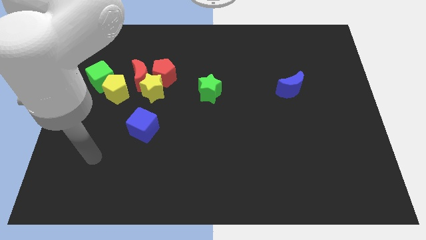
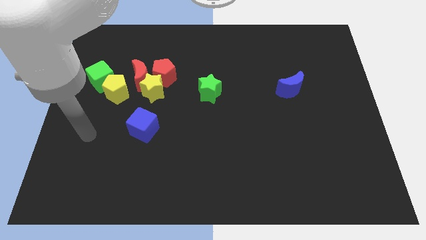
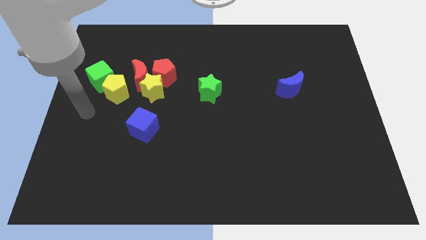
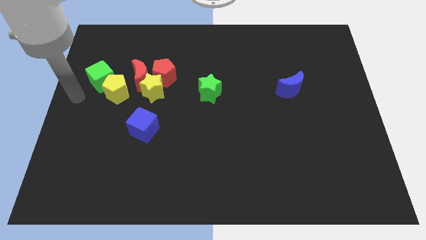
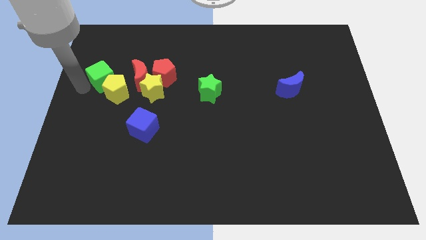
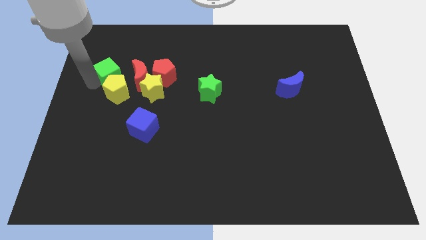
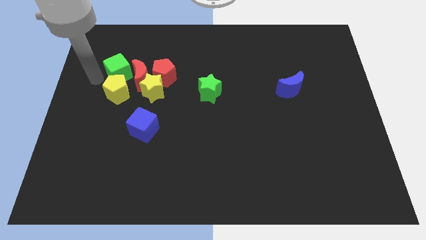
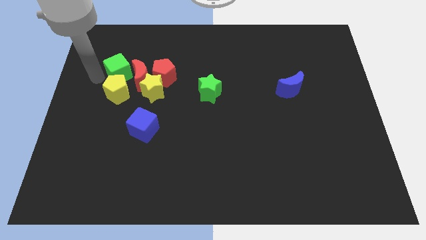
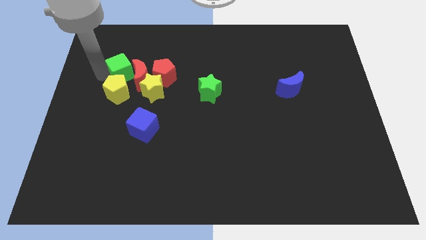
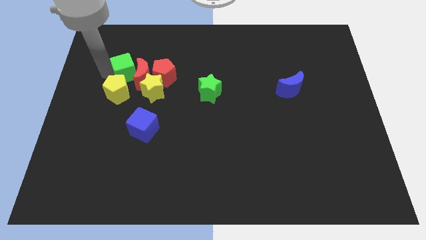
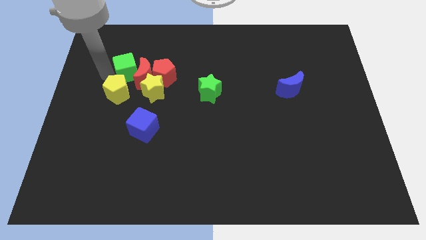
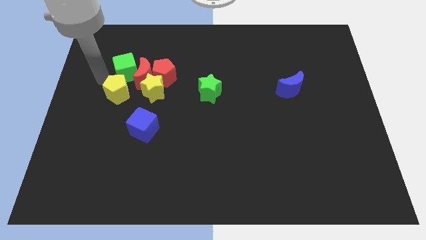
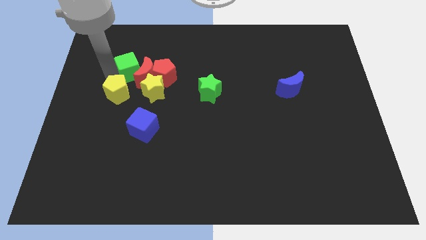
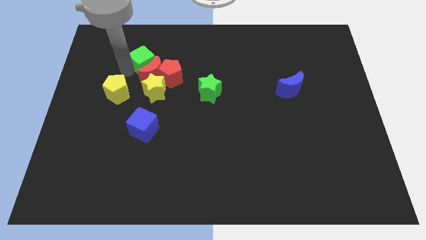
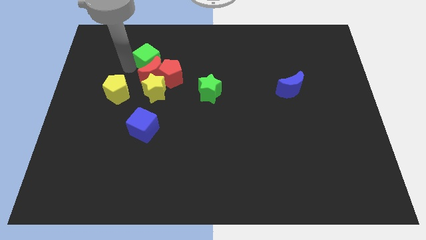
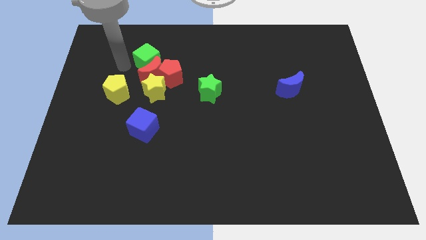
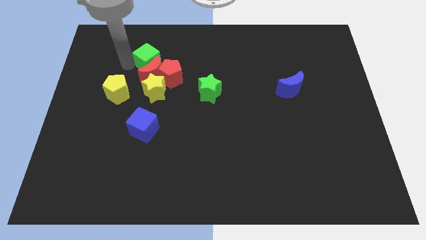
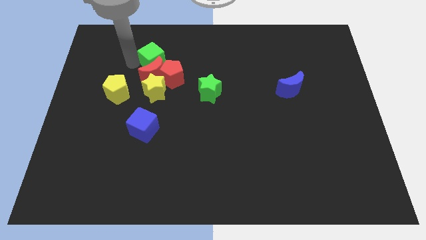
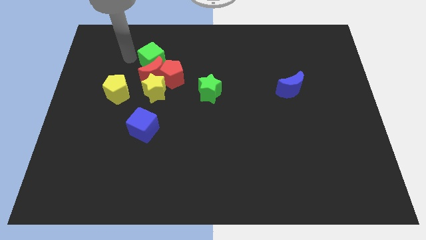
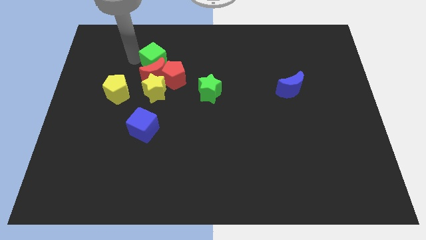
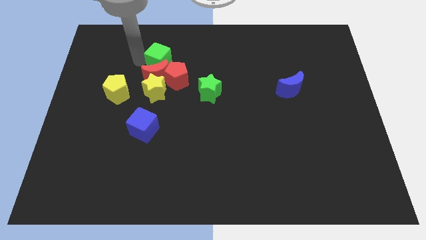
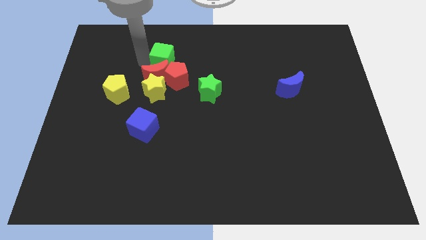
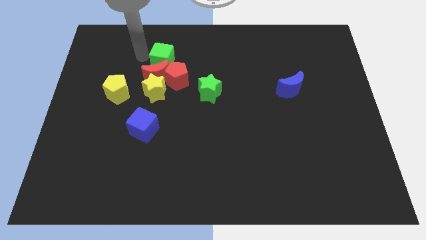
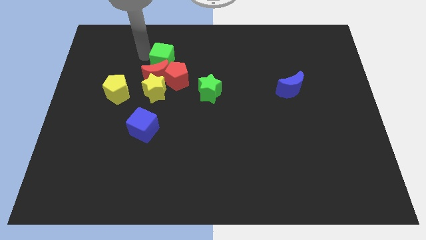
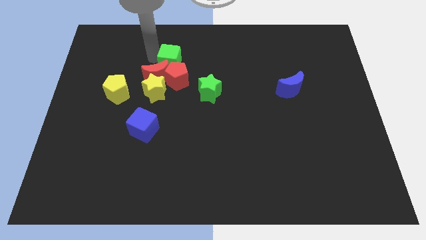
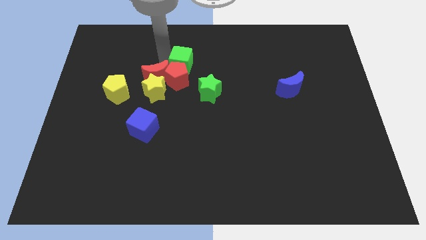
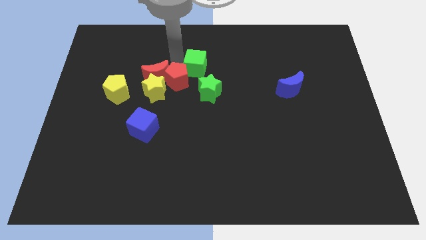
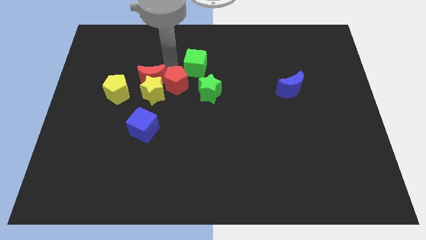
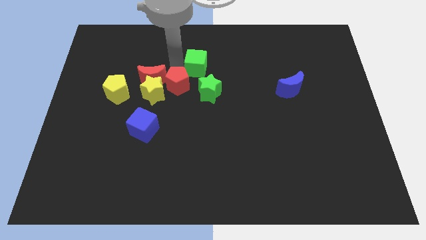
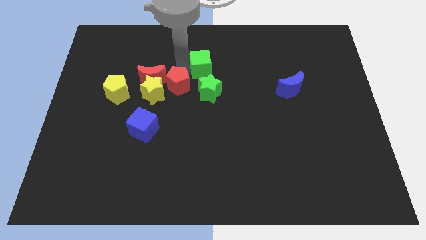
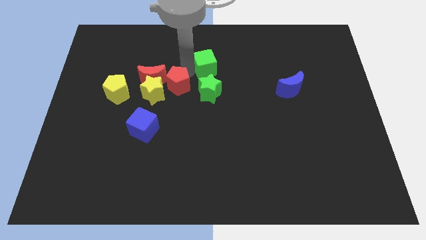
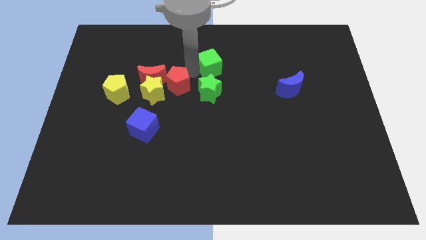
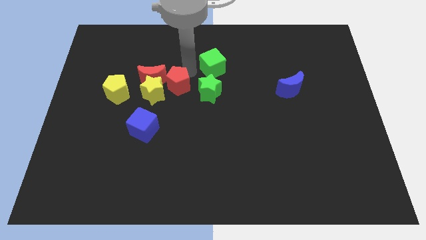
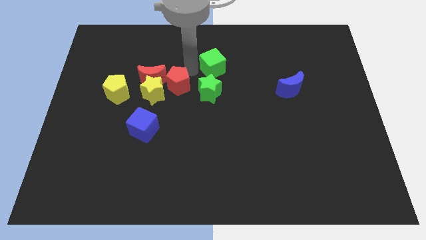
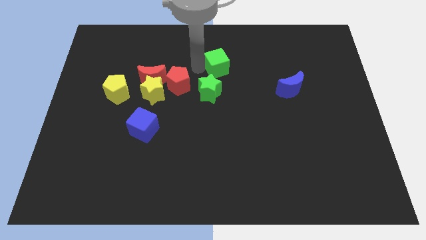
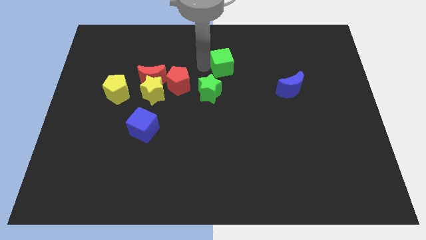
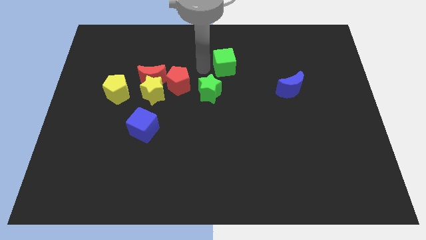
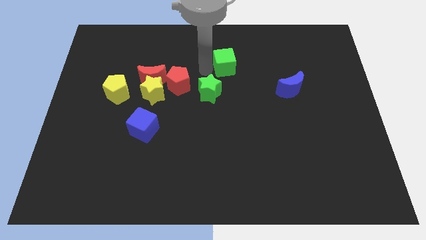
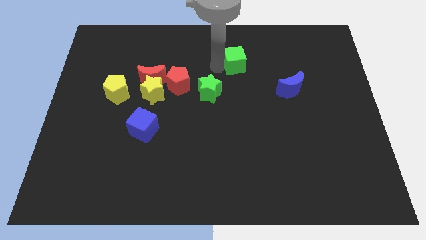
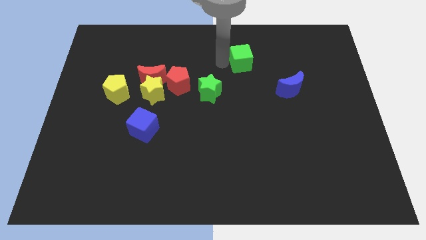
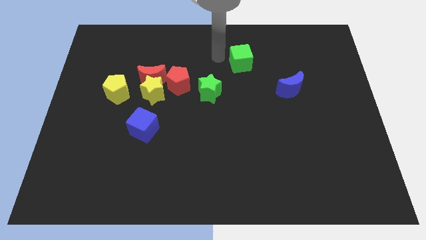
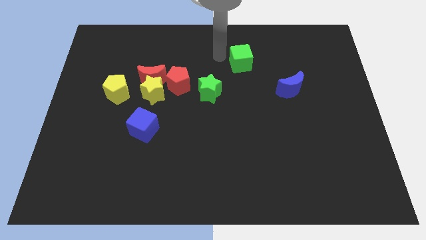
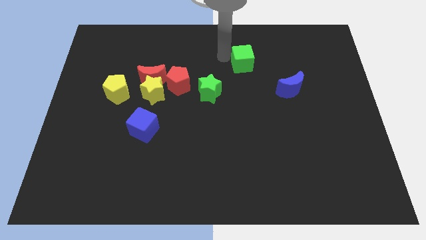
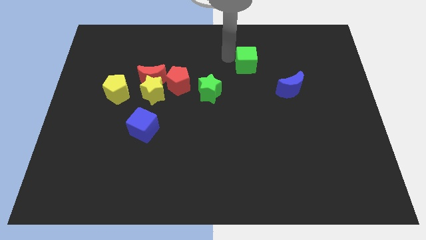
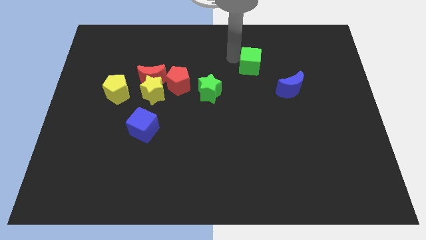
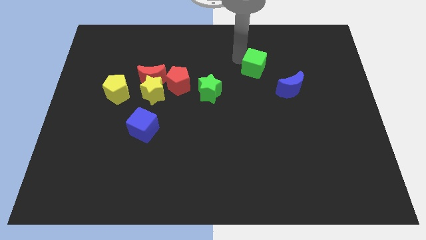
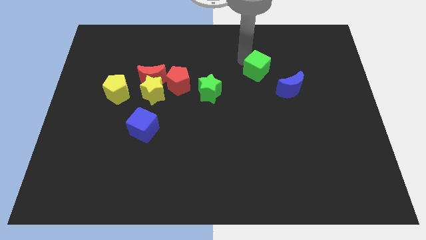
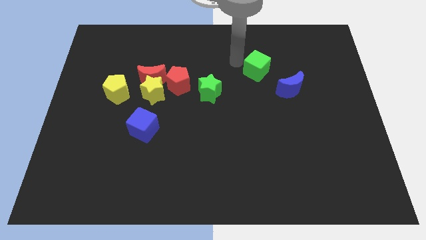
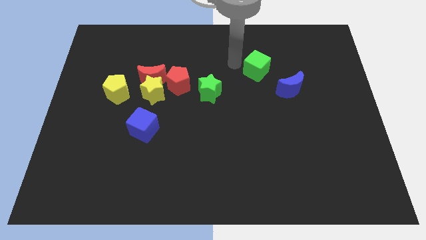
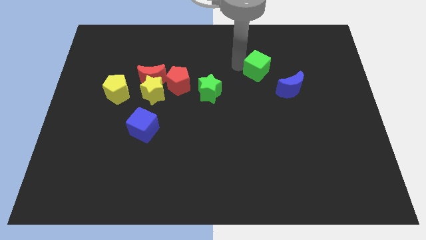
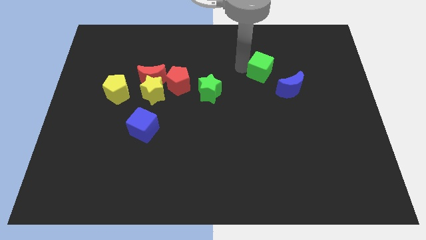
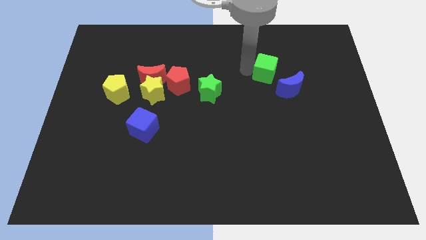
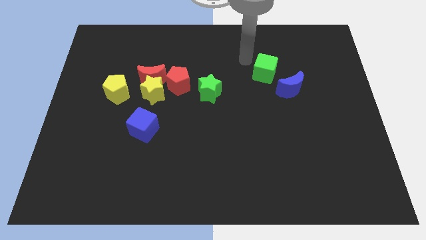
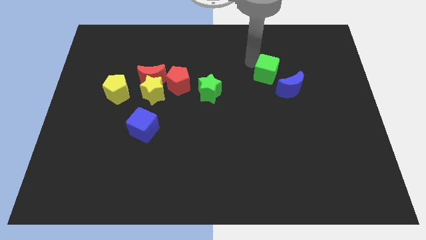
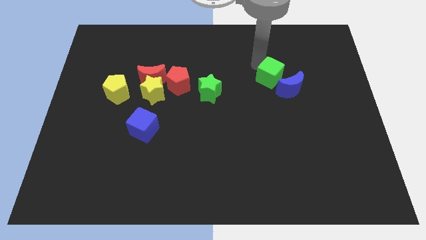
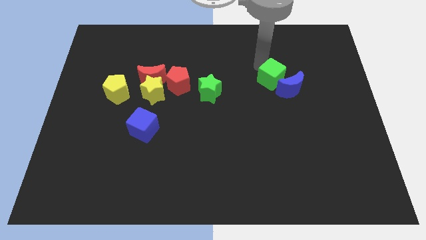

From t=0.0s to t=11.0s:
push the green cube towards the blue moon

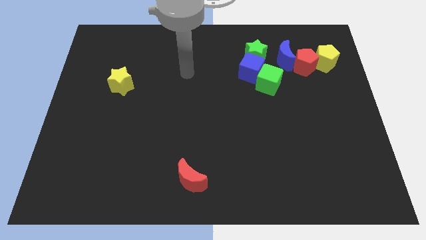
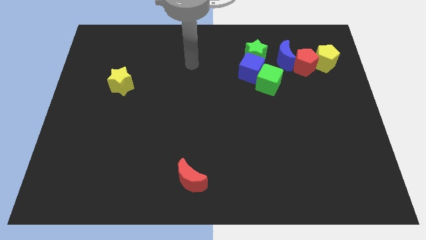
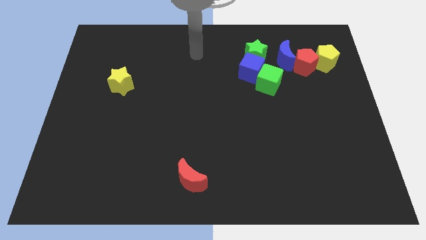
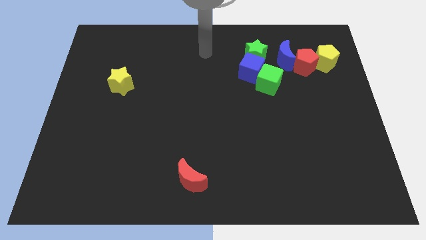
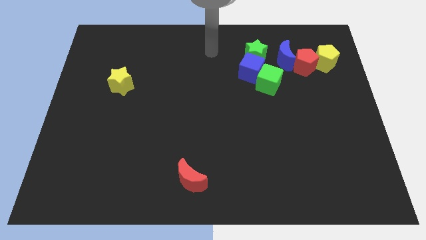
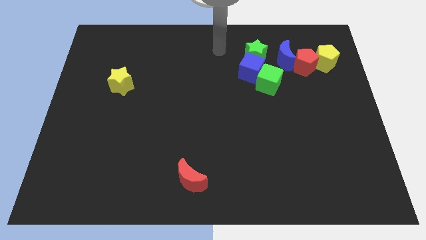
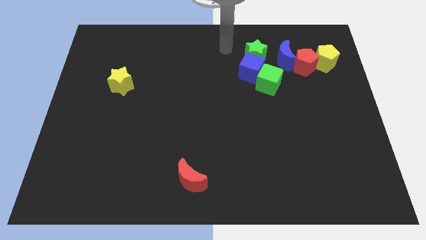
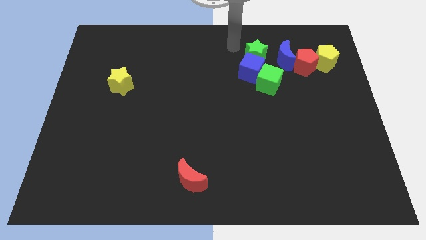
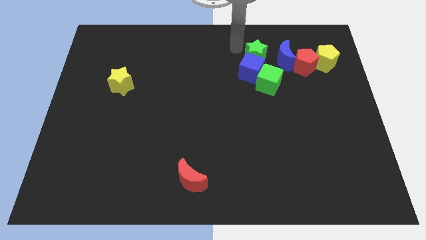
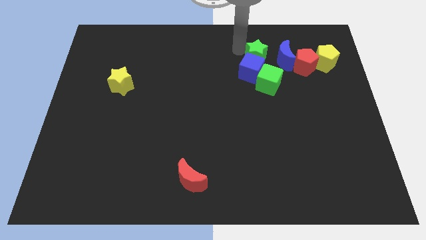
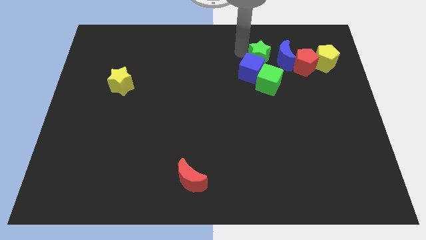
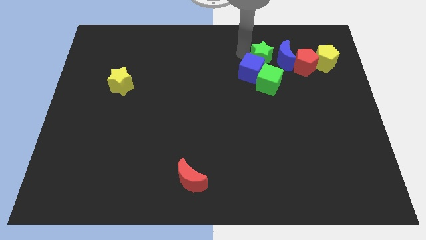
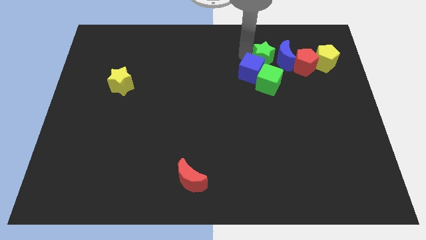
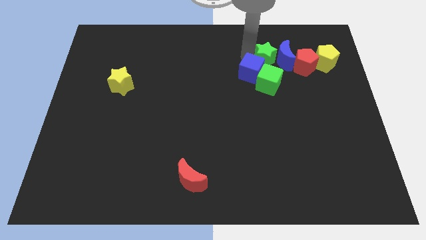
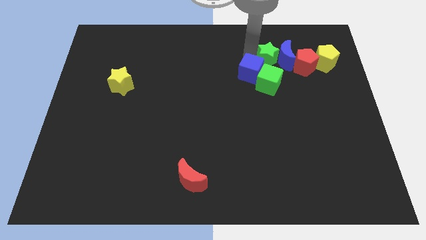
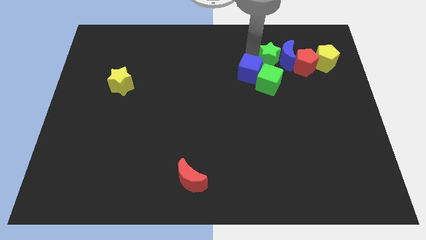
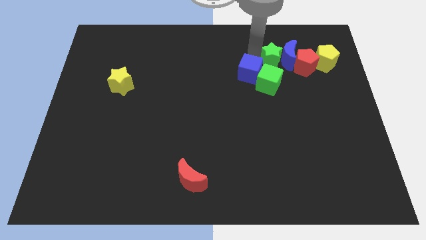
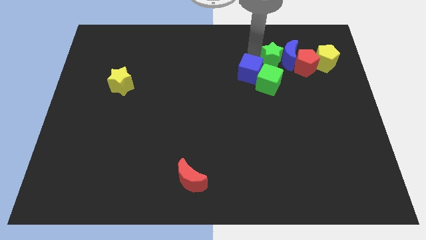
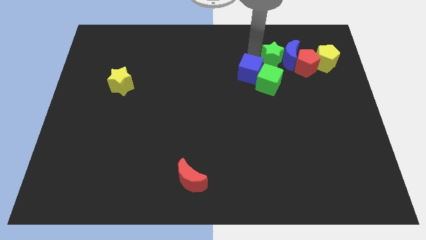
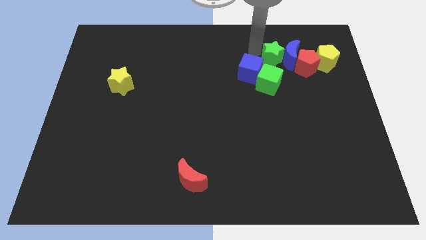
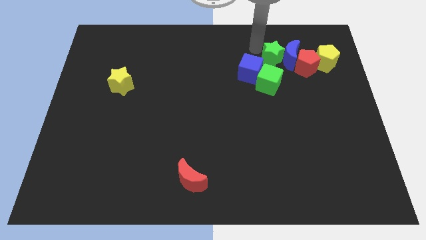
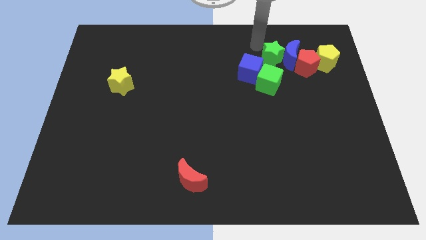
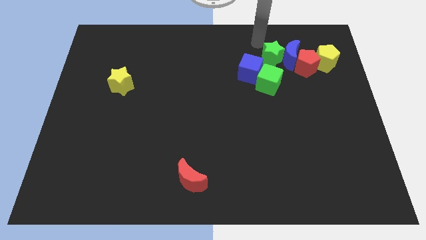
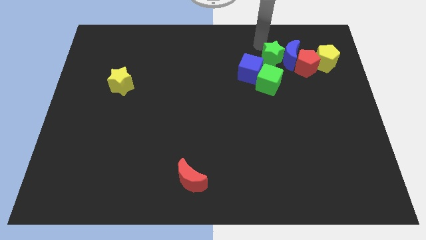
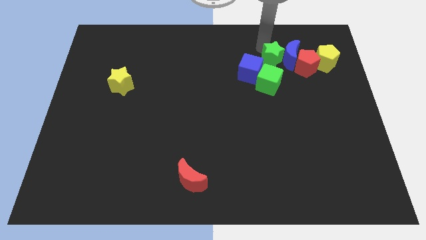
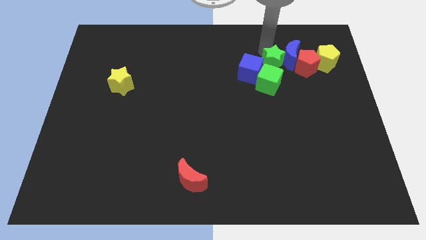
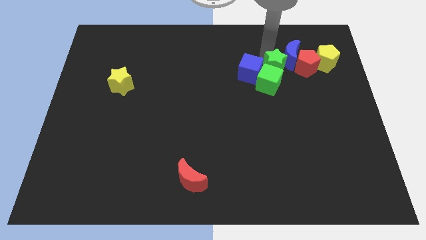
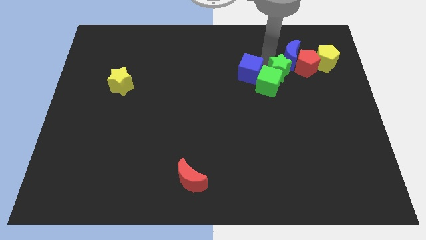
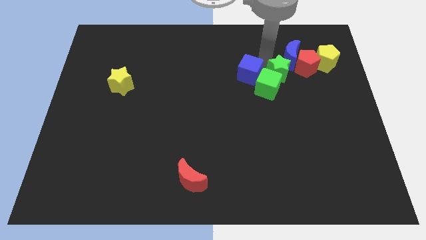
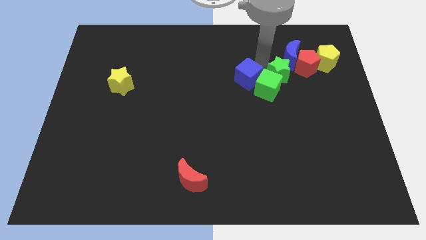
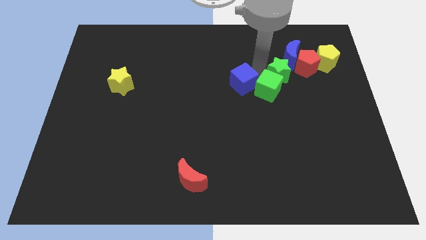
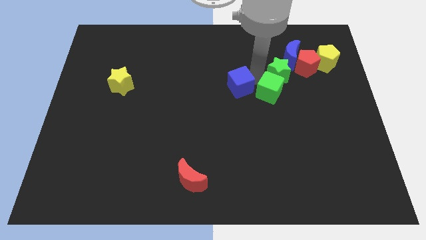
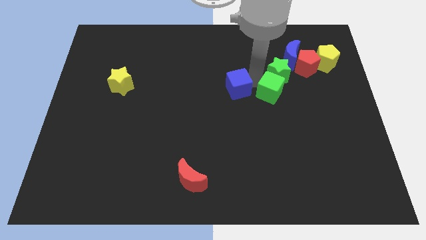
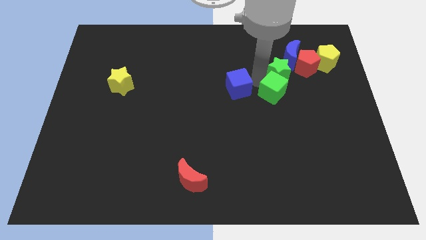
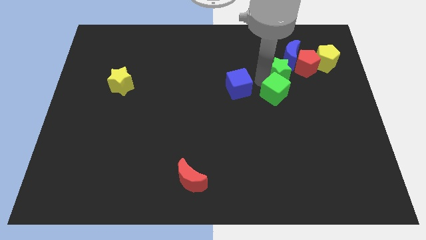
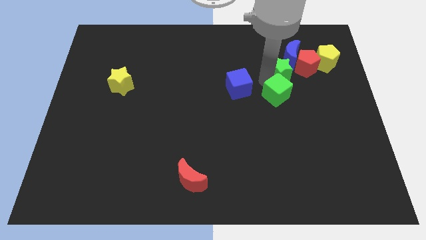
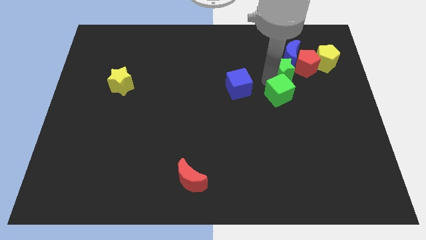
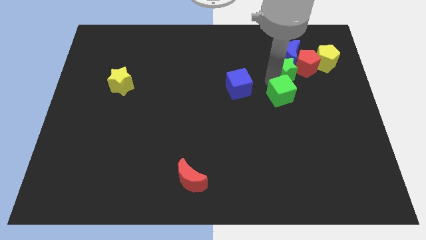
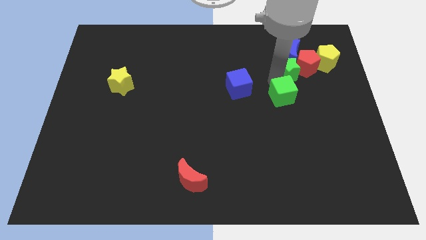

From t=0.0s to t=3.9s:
put the green star next to the red pentagon
